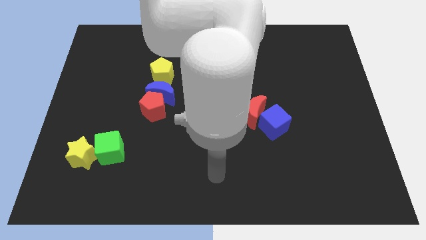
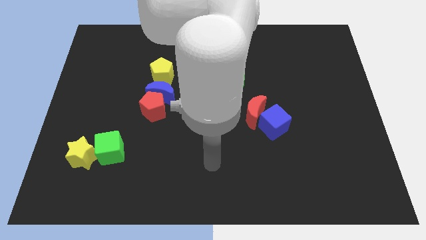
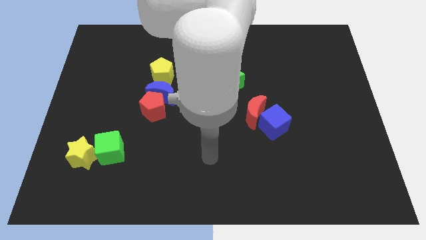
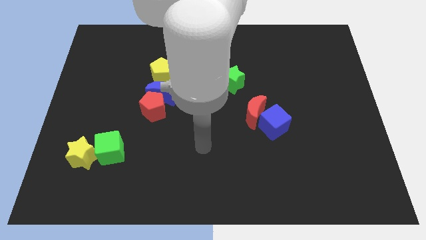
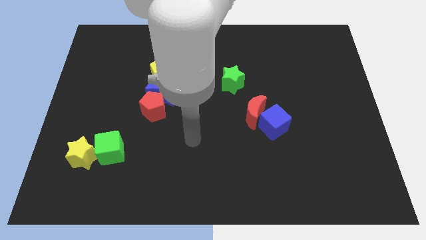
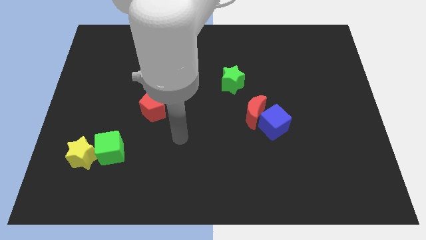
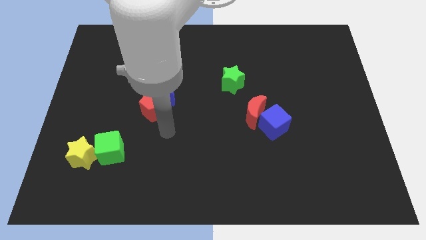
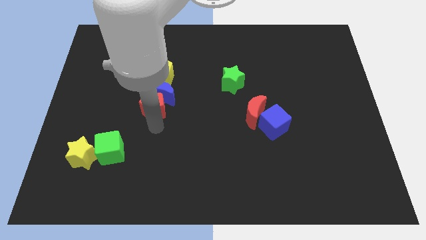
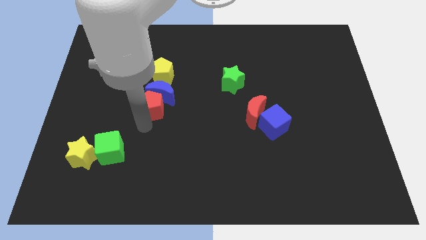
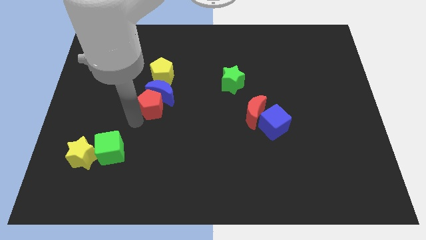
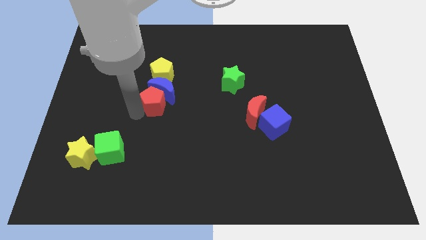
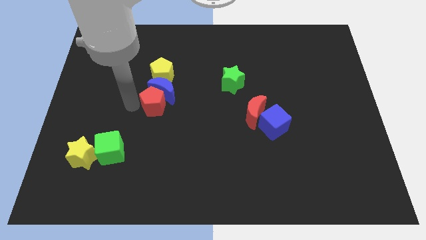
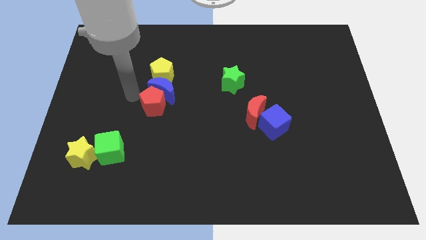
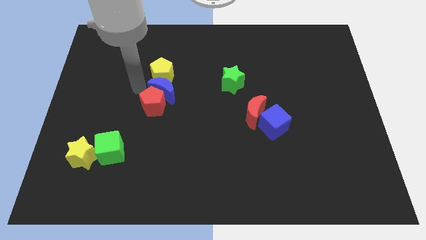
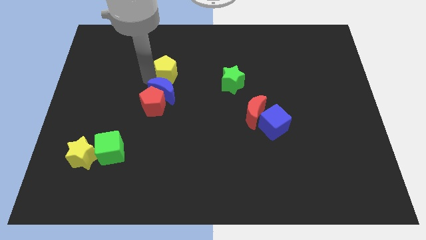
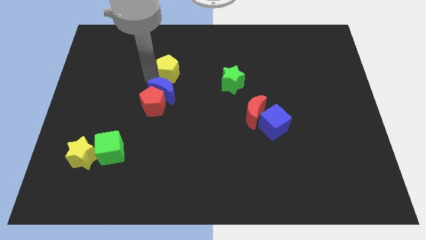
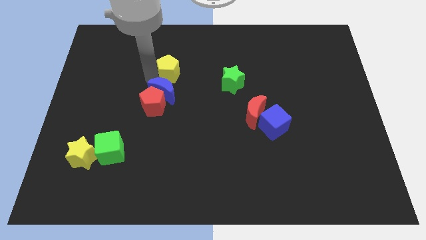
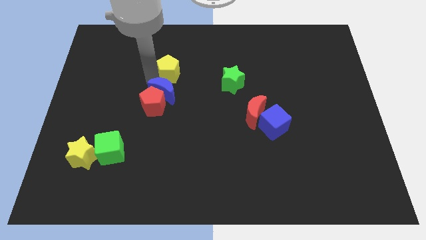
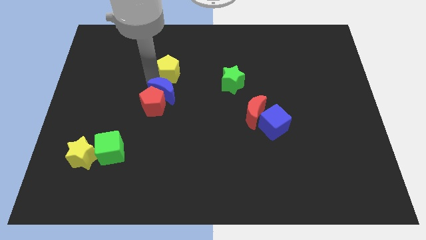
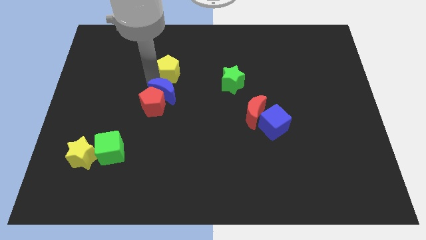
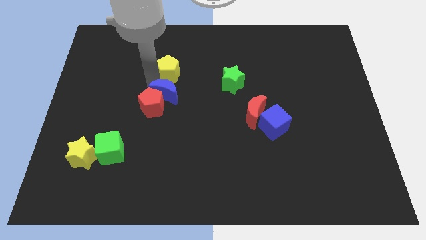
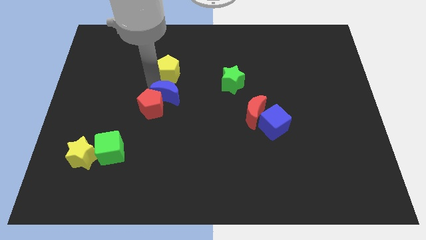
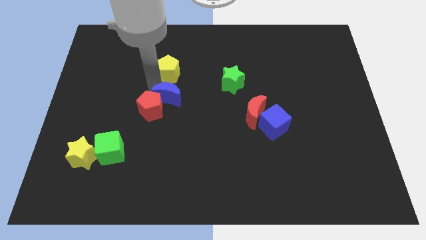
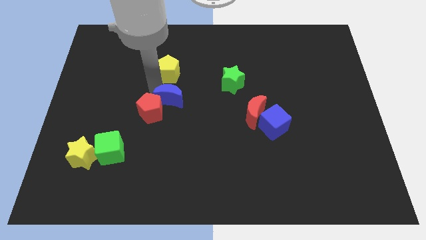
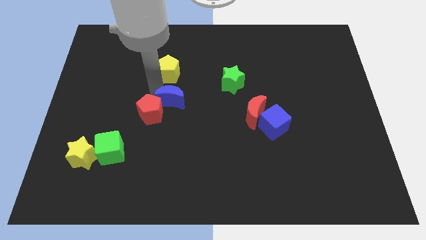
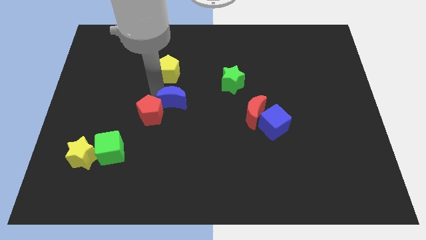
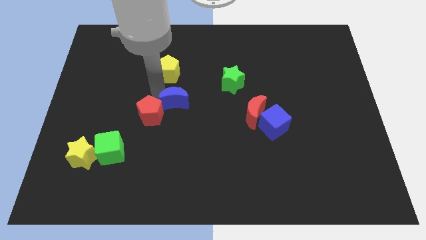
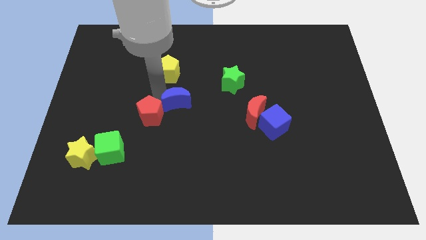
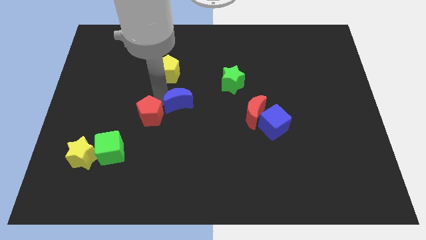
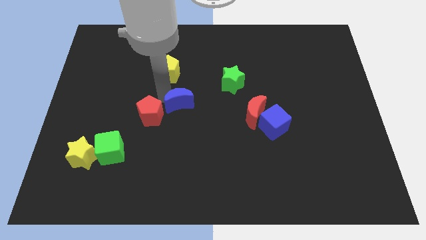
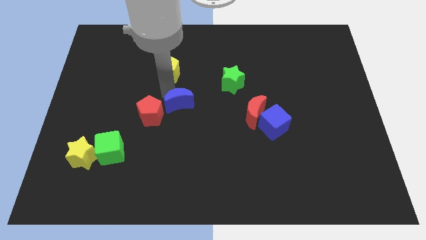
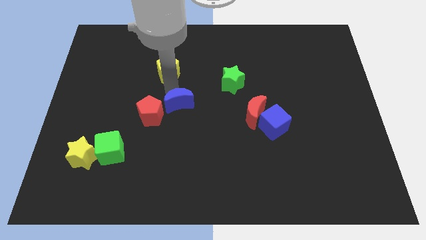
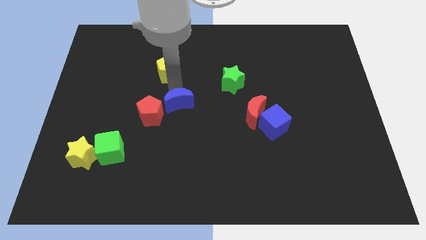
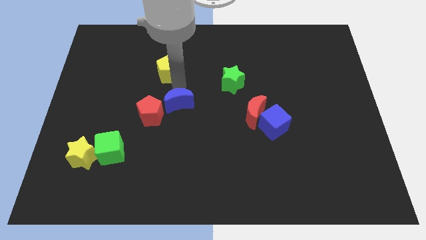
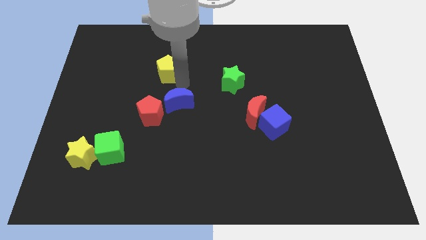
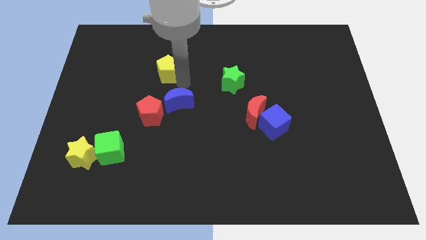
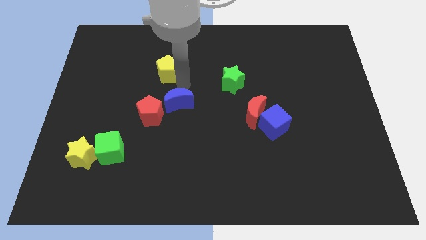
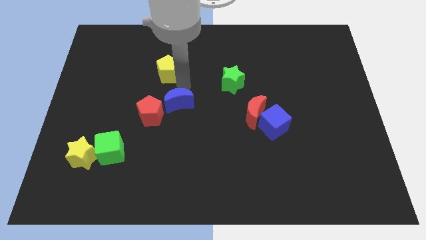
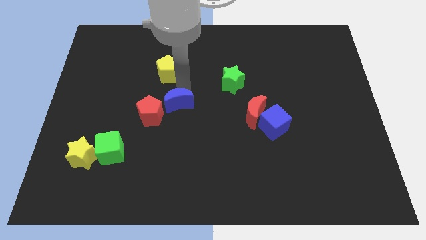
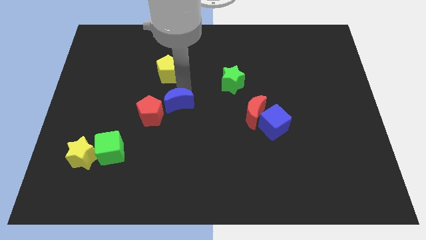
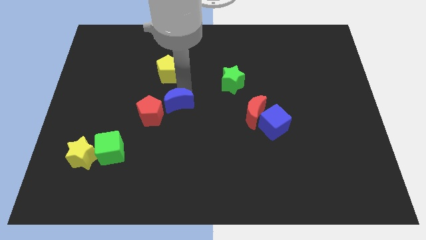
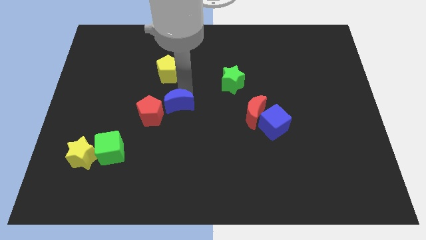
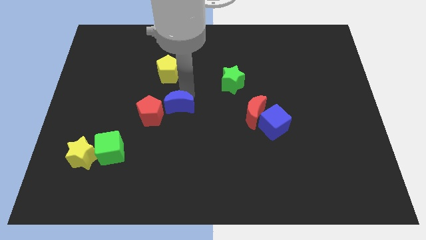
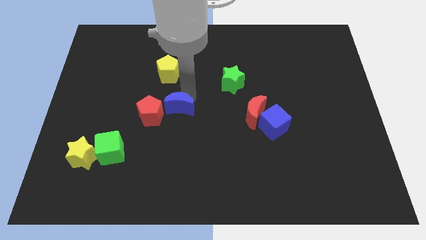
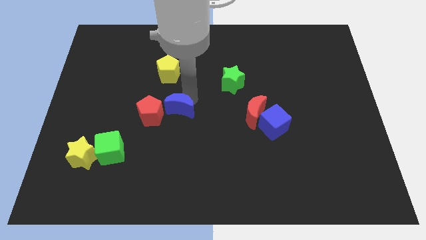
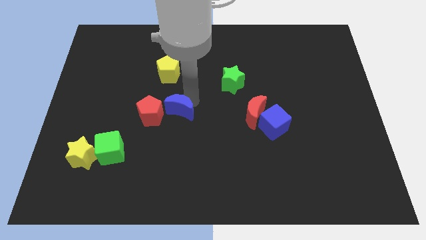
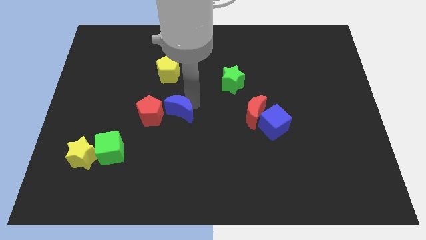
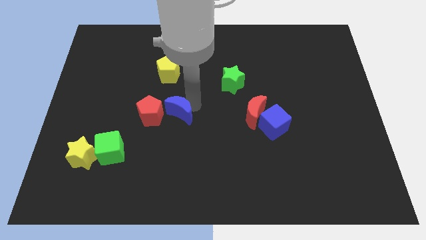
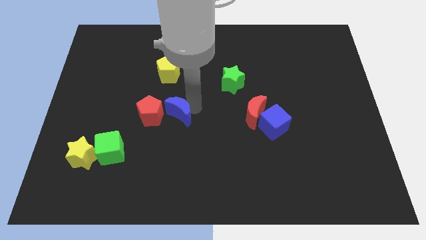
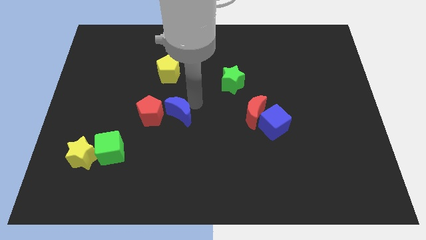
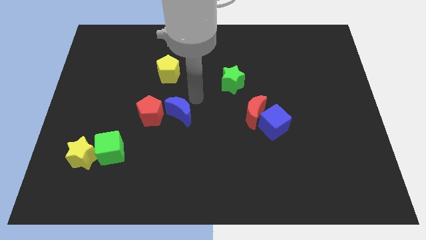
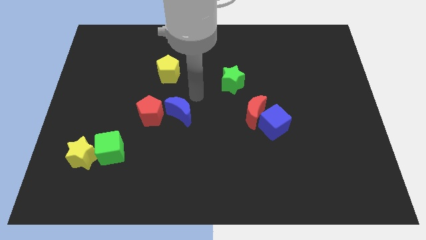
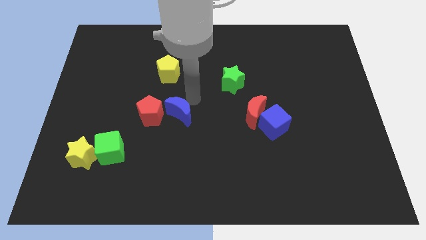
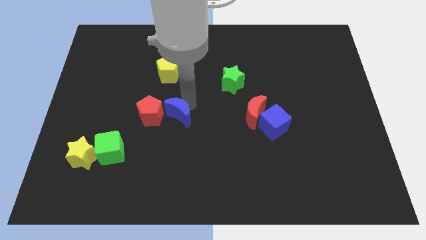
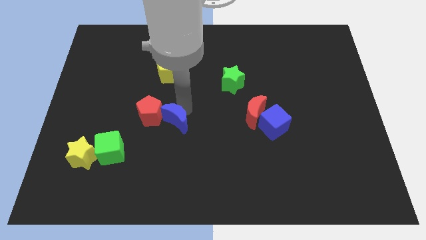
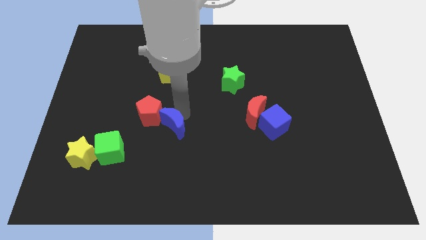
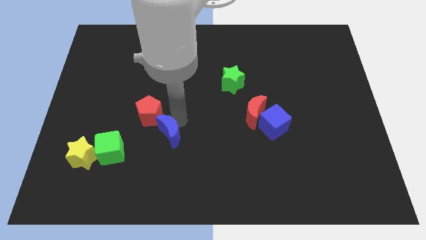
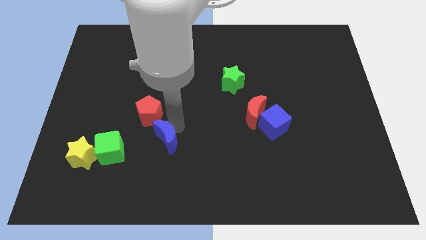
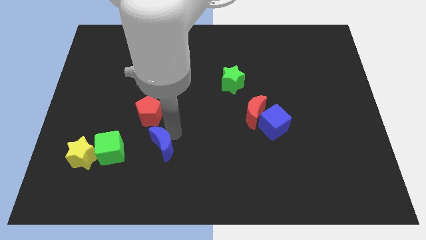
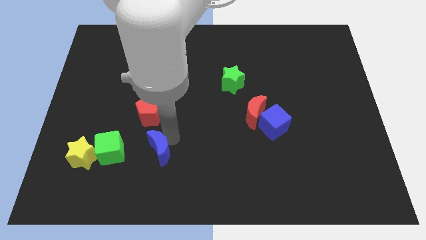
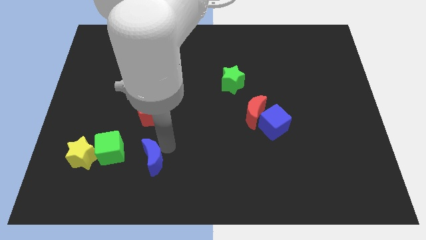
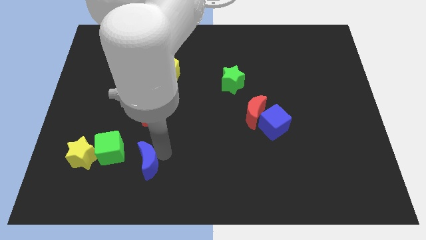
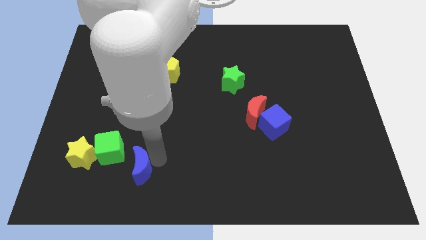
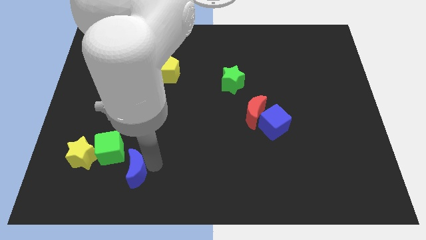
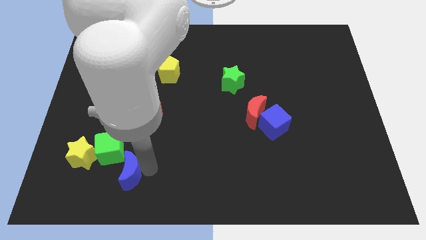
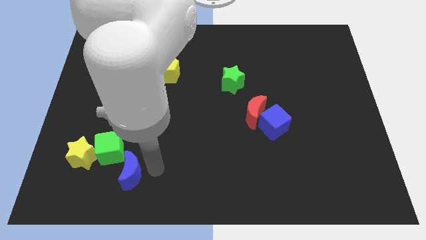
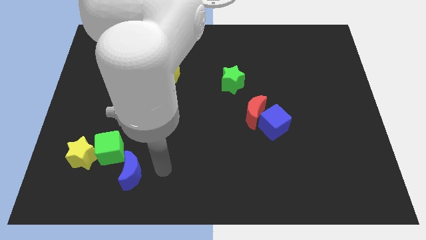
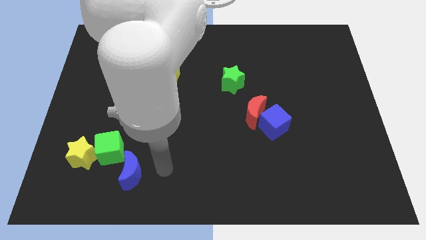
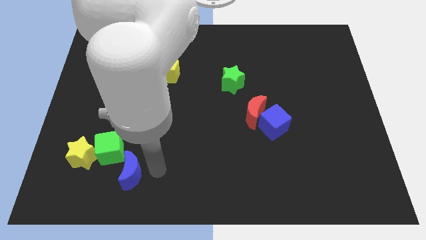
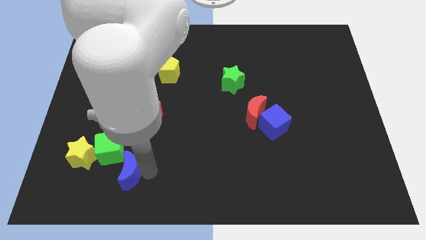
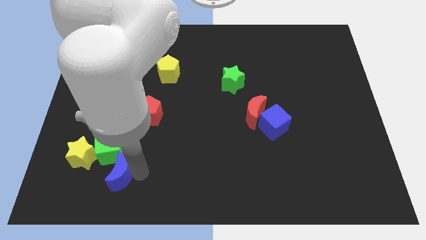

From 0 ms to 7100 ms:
put the blue moon diagonally down and to the right of the yellow star

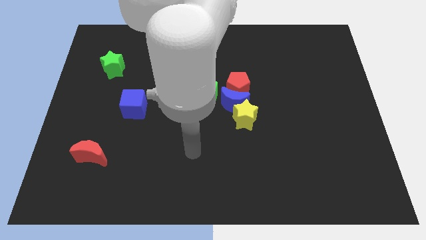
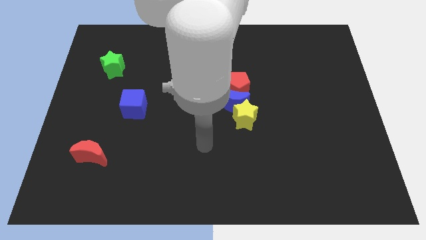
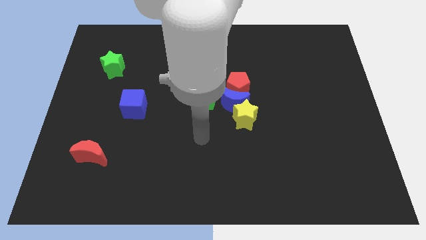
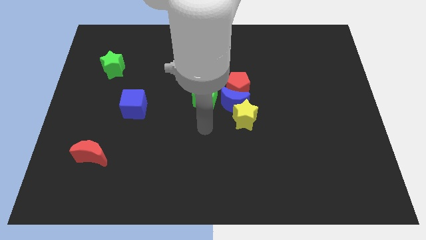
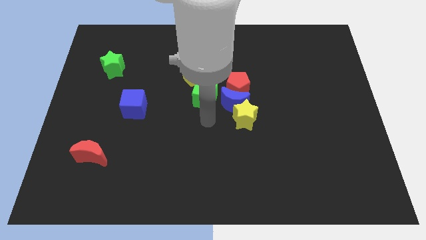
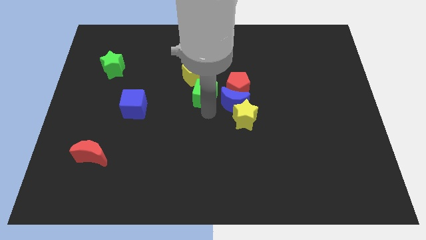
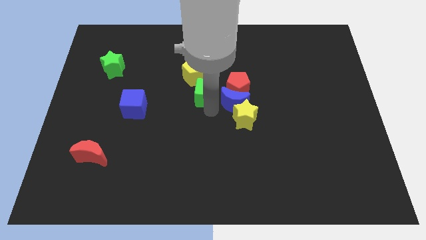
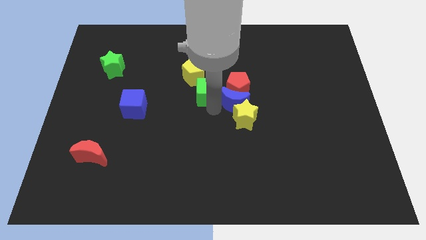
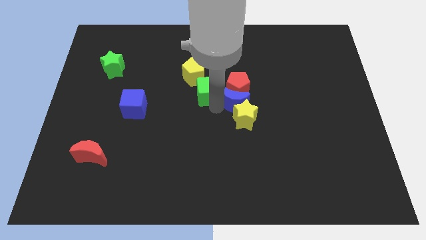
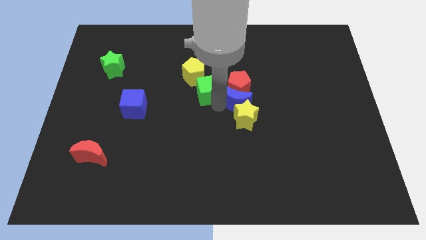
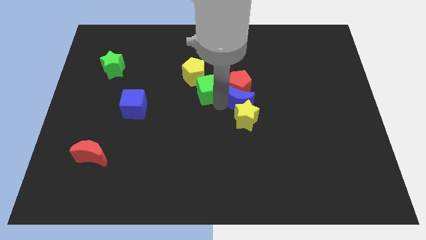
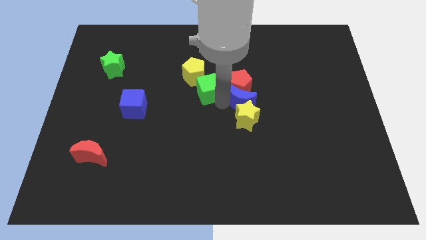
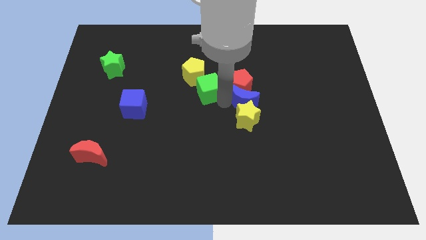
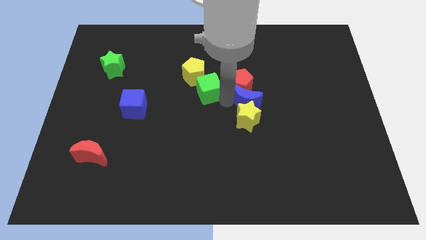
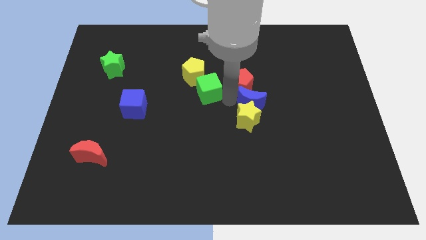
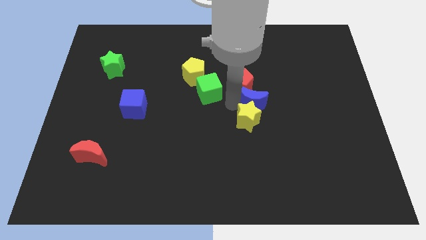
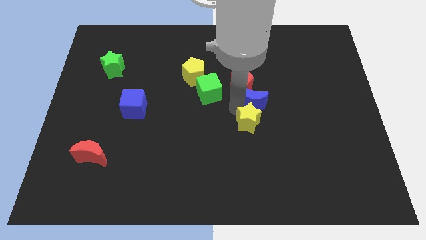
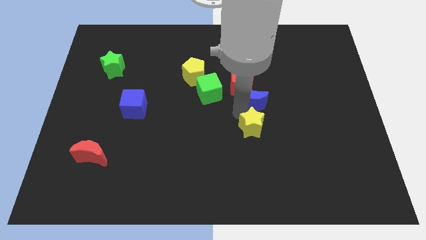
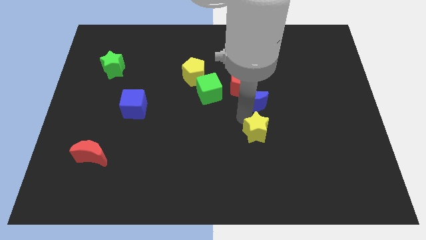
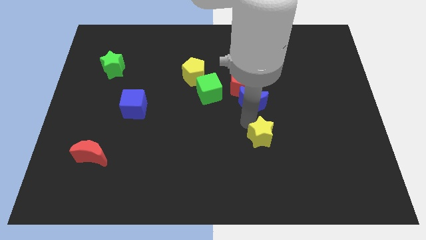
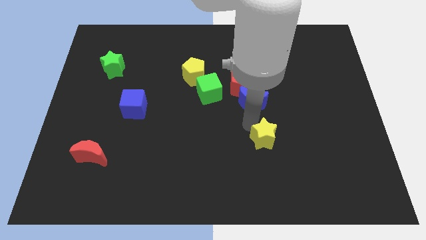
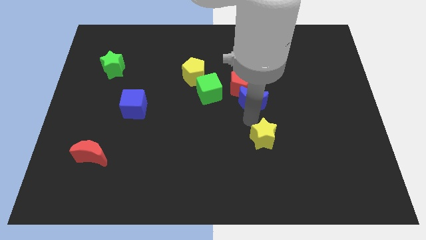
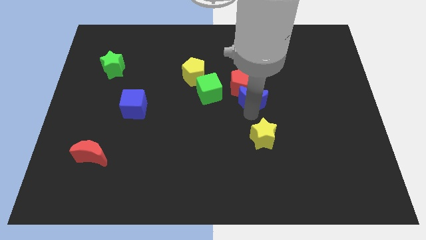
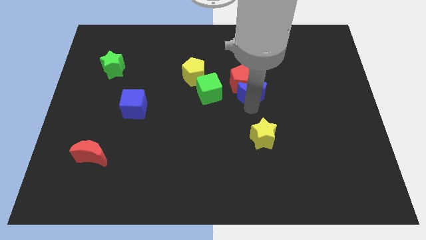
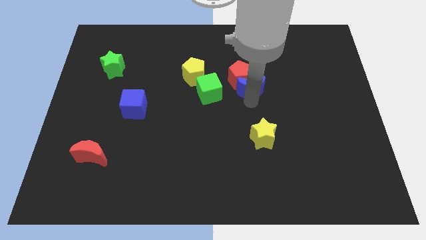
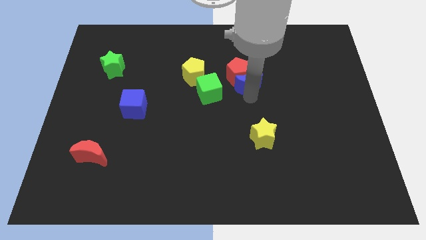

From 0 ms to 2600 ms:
push the blue moon right of the yellow pentagon
